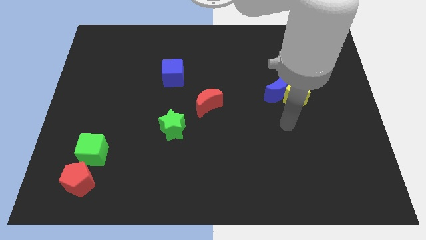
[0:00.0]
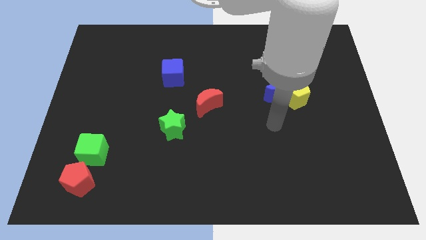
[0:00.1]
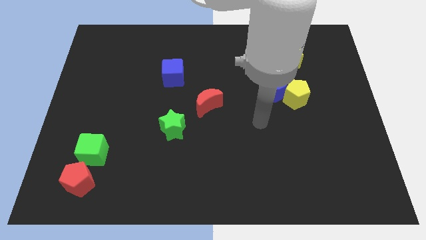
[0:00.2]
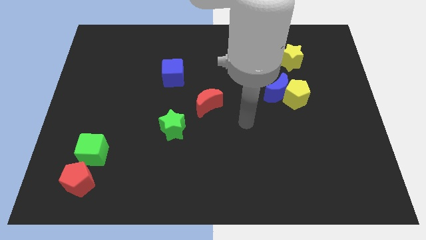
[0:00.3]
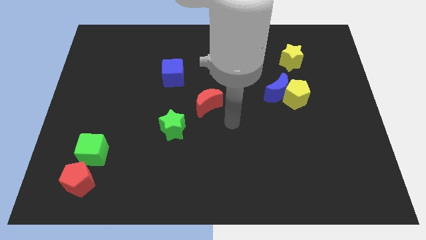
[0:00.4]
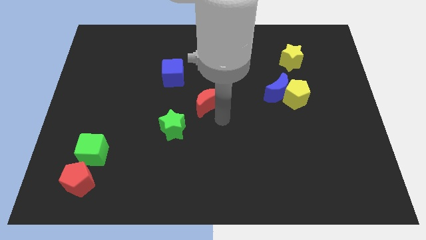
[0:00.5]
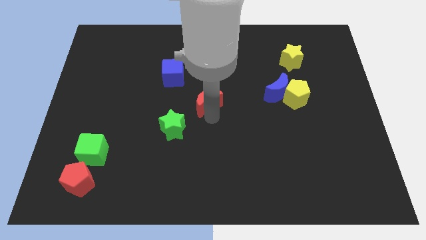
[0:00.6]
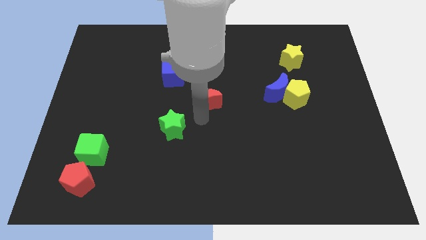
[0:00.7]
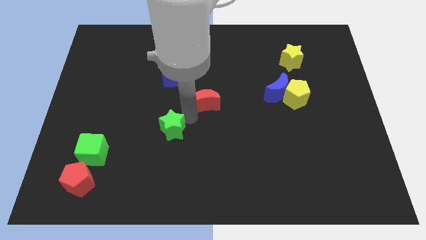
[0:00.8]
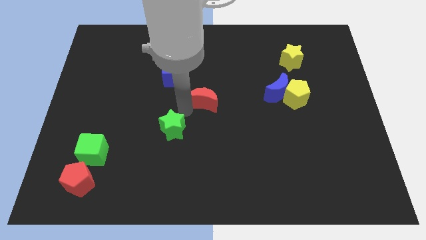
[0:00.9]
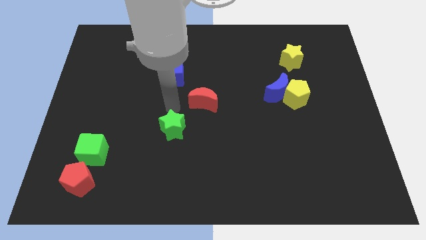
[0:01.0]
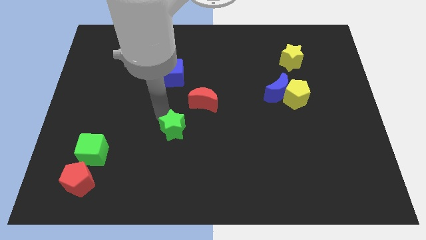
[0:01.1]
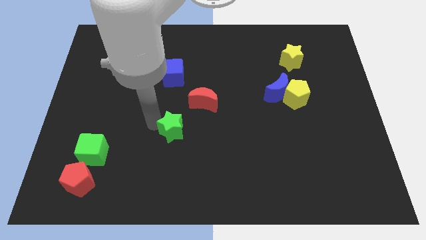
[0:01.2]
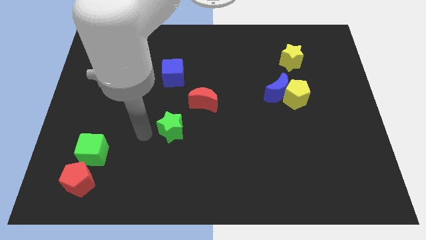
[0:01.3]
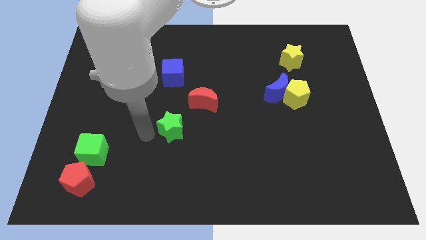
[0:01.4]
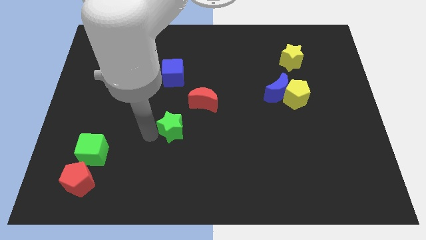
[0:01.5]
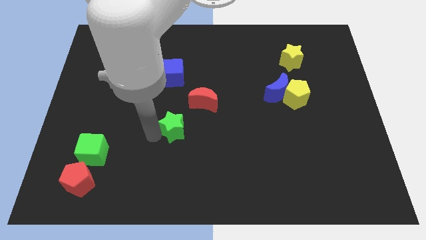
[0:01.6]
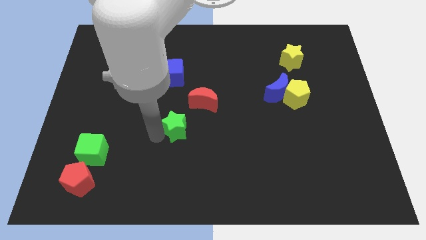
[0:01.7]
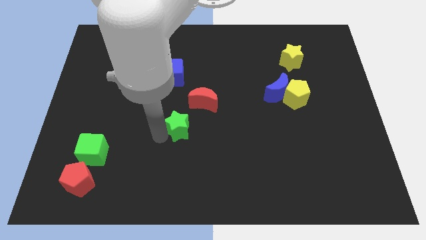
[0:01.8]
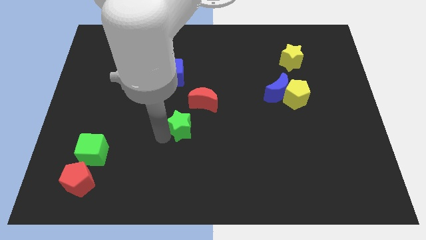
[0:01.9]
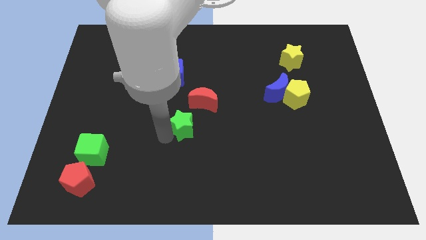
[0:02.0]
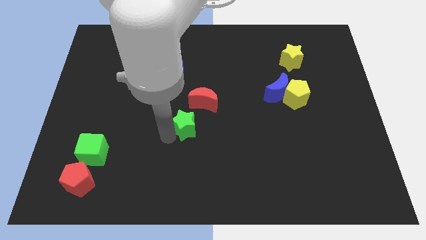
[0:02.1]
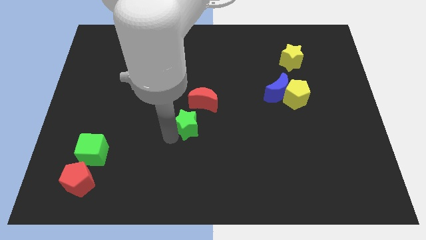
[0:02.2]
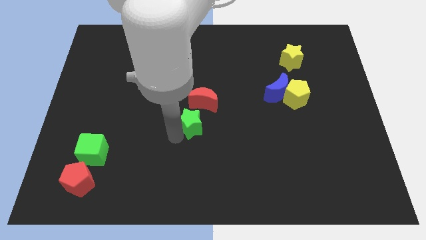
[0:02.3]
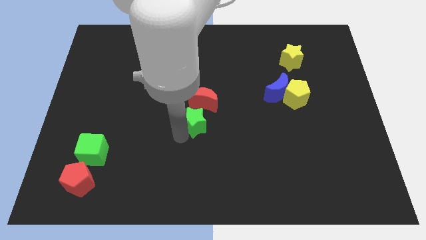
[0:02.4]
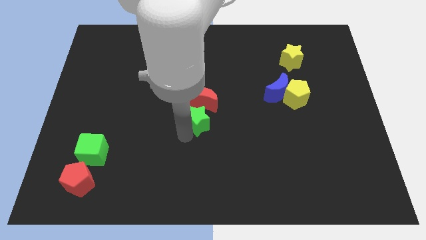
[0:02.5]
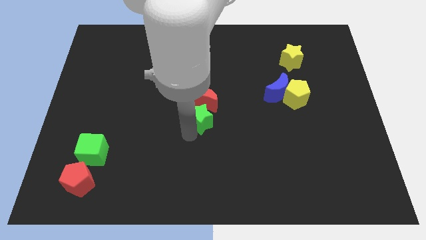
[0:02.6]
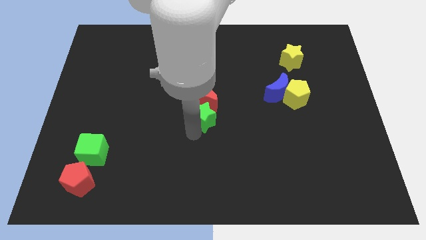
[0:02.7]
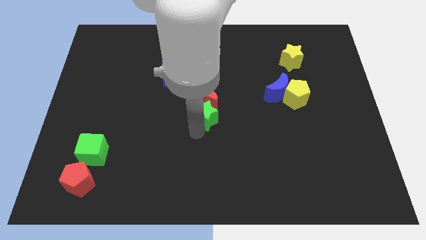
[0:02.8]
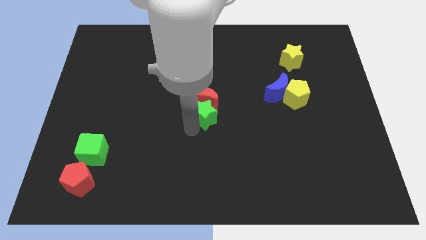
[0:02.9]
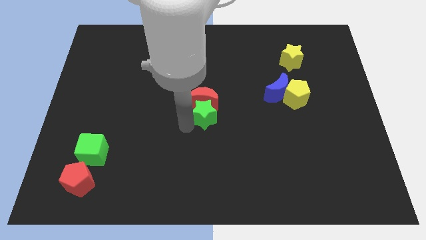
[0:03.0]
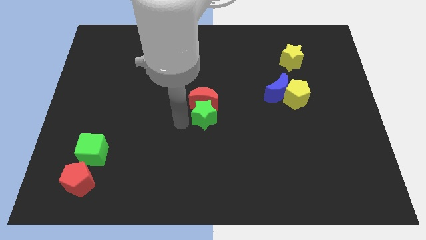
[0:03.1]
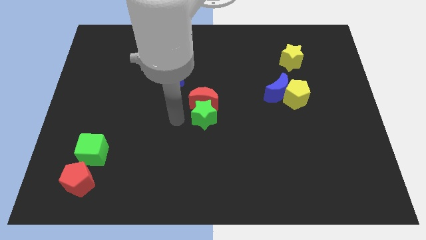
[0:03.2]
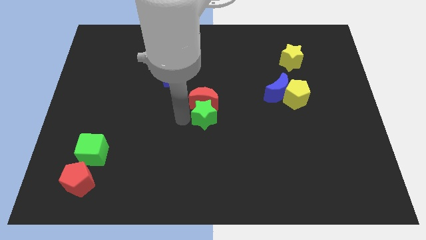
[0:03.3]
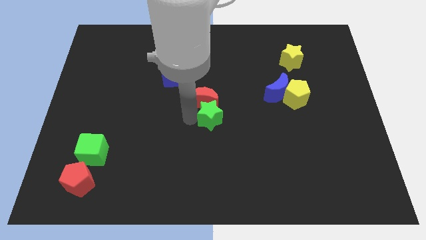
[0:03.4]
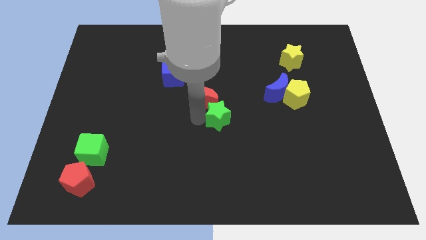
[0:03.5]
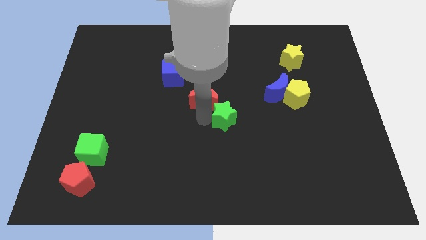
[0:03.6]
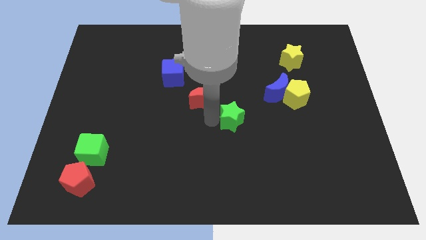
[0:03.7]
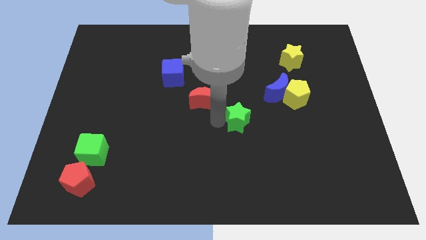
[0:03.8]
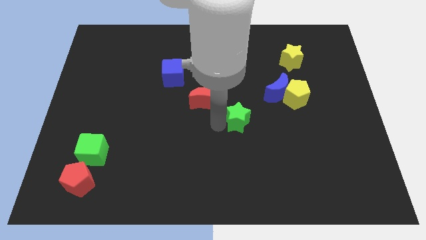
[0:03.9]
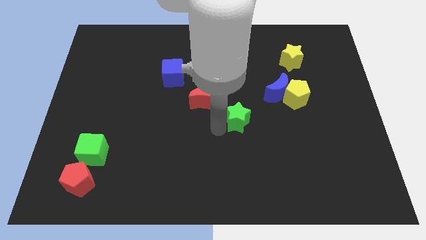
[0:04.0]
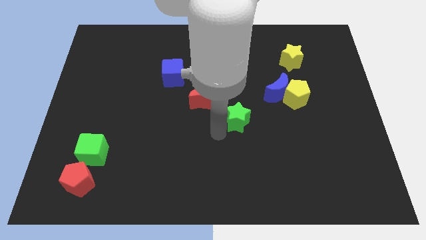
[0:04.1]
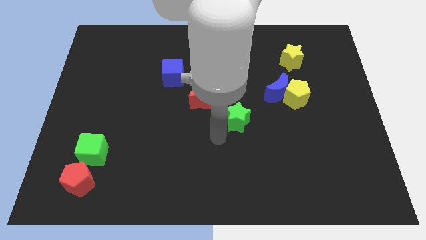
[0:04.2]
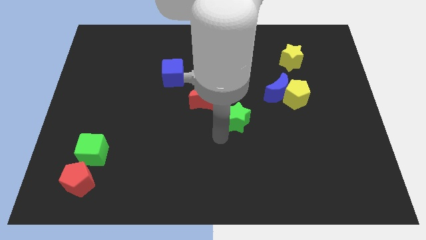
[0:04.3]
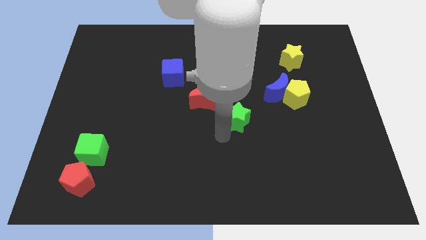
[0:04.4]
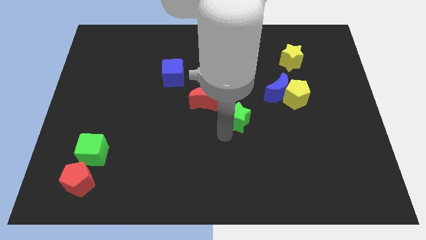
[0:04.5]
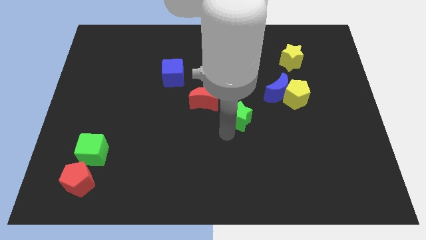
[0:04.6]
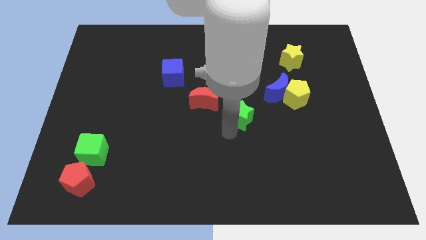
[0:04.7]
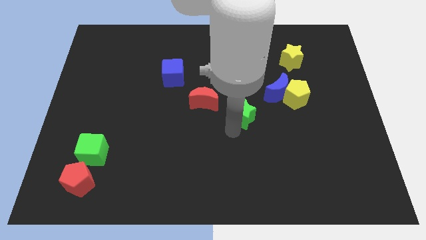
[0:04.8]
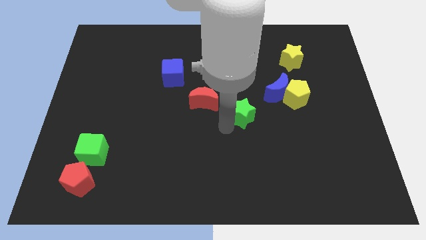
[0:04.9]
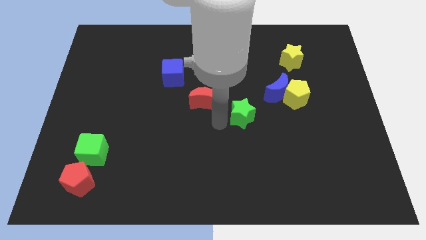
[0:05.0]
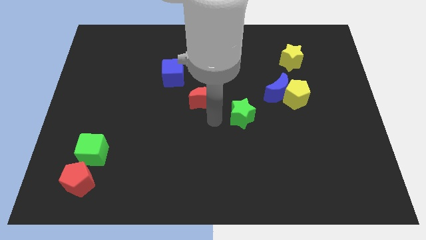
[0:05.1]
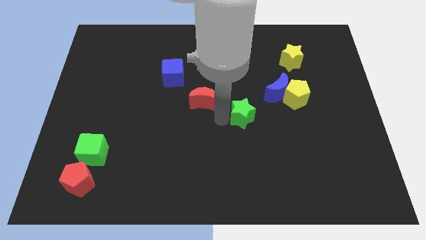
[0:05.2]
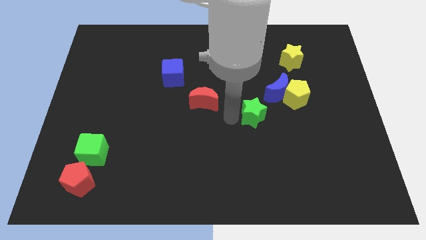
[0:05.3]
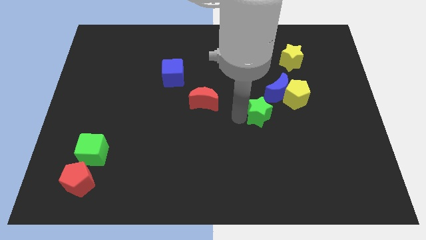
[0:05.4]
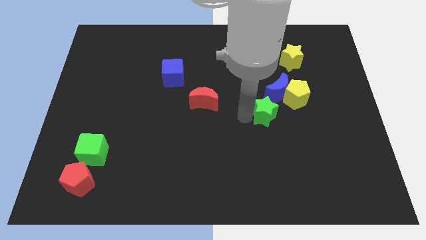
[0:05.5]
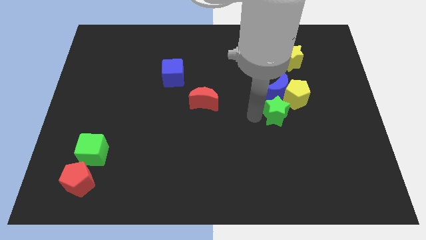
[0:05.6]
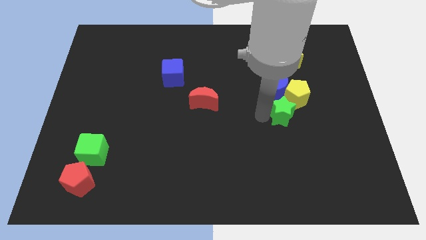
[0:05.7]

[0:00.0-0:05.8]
push the green star to the bottom right side of the blue moon

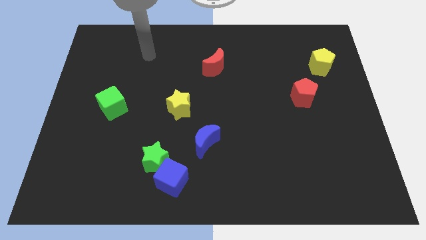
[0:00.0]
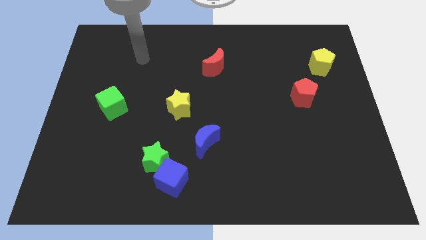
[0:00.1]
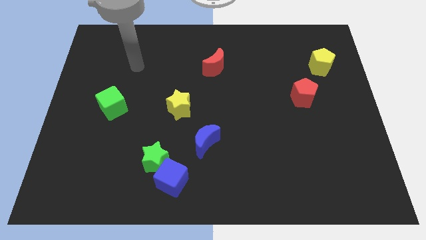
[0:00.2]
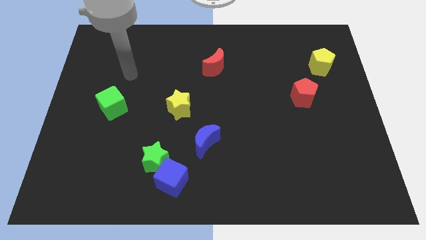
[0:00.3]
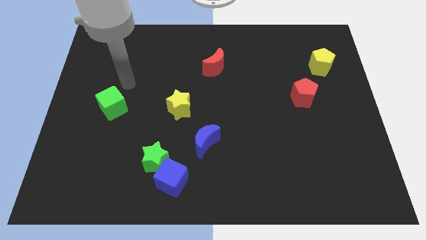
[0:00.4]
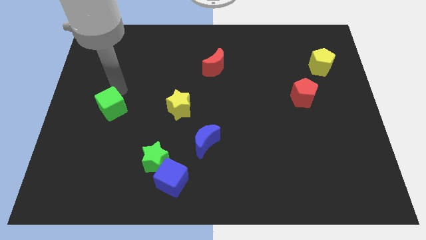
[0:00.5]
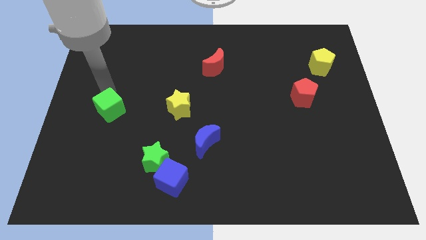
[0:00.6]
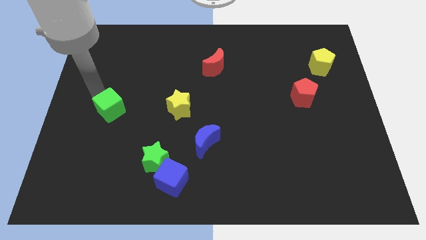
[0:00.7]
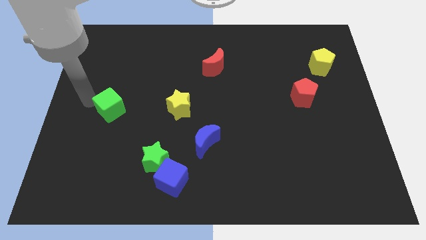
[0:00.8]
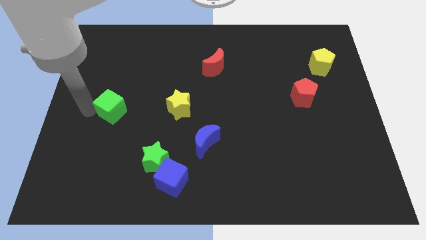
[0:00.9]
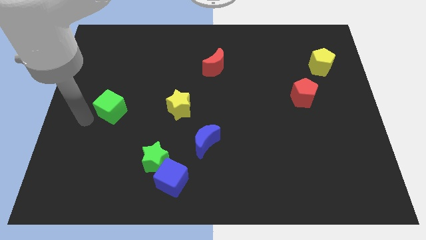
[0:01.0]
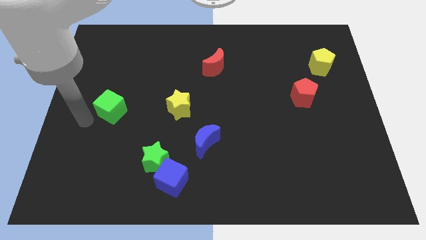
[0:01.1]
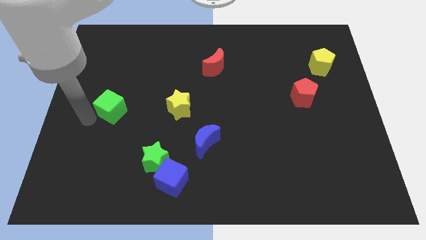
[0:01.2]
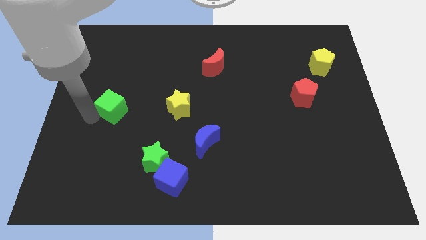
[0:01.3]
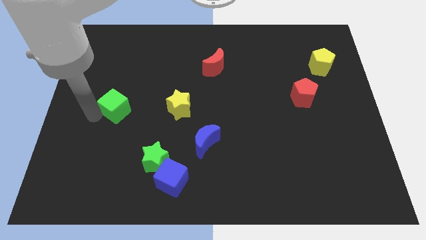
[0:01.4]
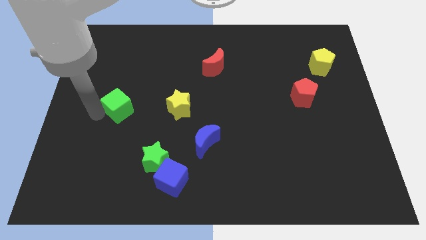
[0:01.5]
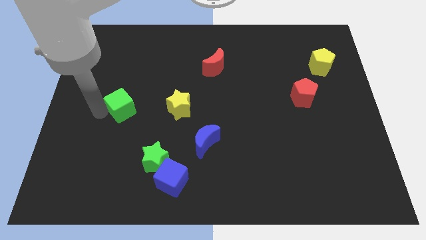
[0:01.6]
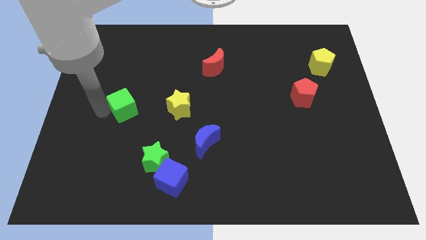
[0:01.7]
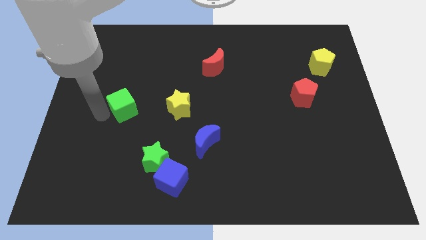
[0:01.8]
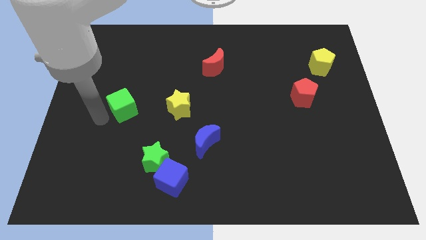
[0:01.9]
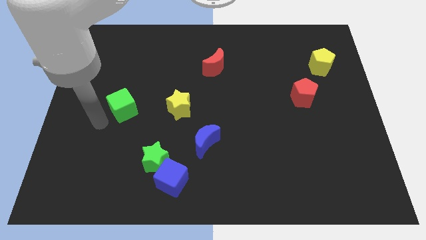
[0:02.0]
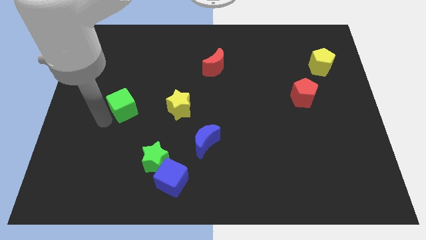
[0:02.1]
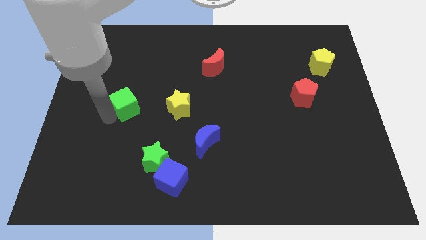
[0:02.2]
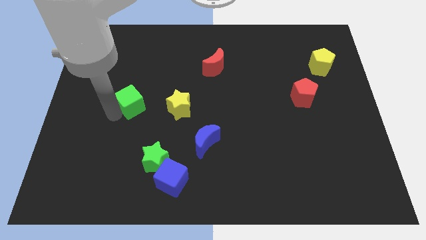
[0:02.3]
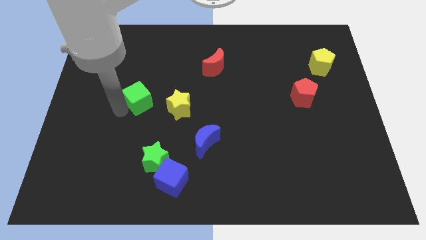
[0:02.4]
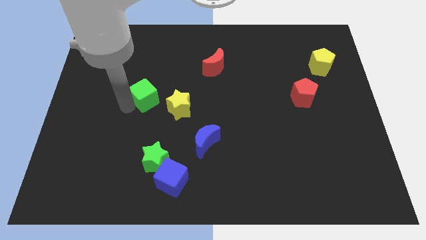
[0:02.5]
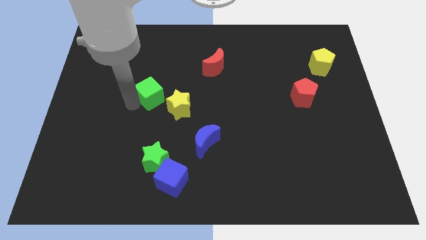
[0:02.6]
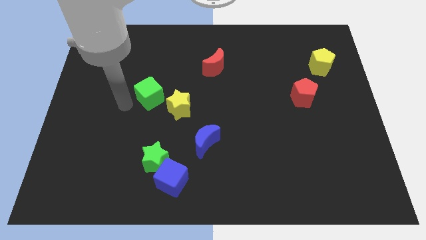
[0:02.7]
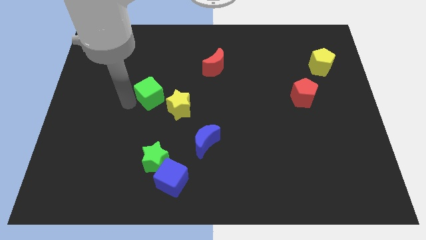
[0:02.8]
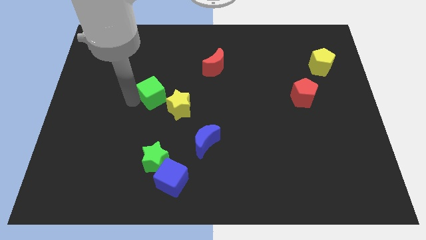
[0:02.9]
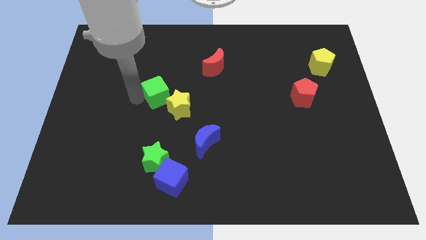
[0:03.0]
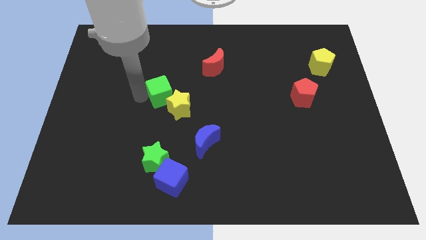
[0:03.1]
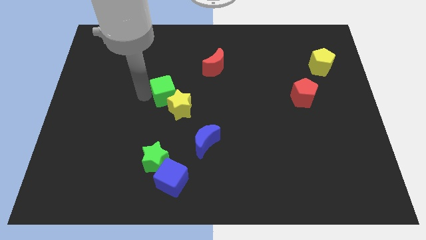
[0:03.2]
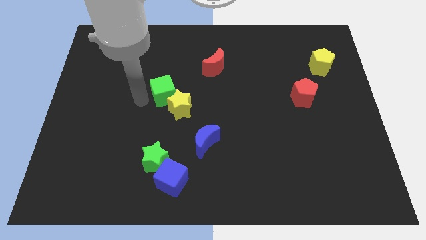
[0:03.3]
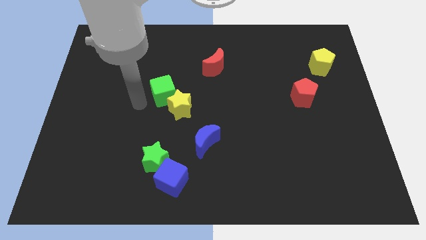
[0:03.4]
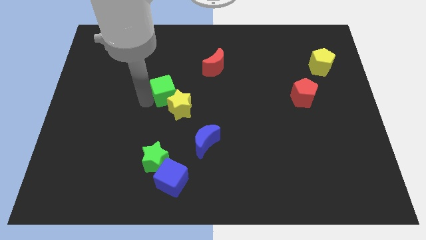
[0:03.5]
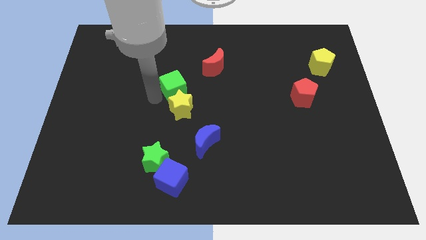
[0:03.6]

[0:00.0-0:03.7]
move the green cube to the bottom left side of the red moon
